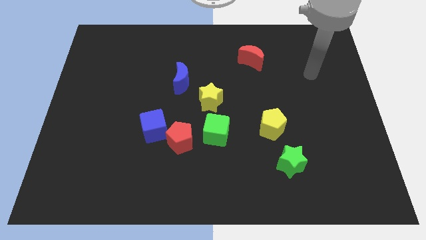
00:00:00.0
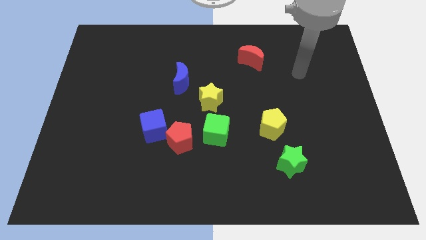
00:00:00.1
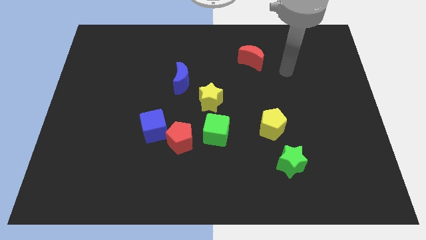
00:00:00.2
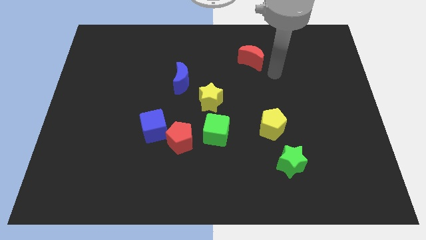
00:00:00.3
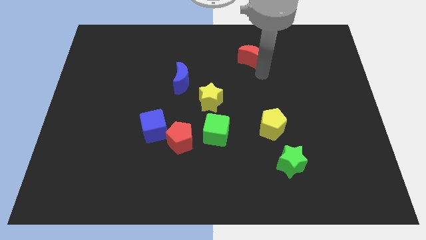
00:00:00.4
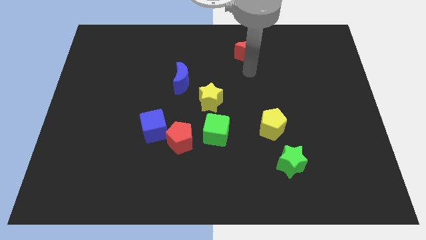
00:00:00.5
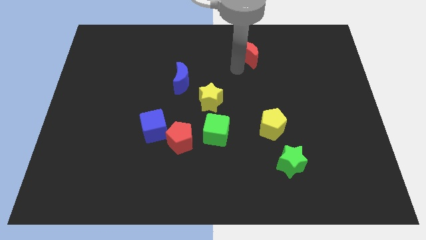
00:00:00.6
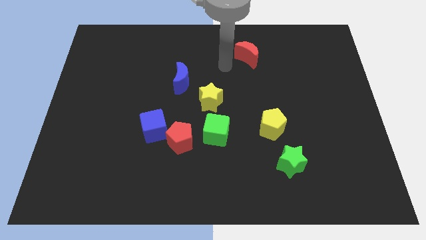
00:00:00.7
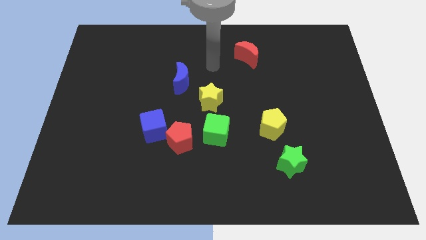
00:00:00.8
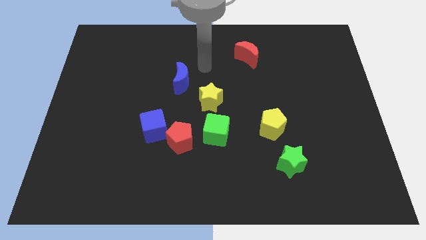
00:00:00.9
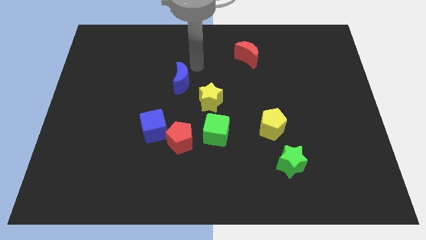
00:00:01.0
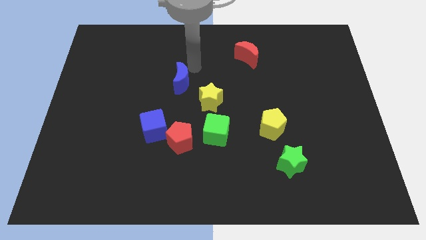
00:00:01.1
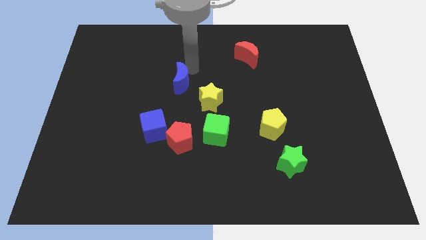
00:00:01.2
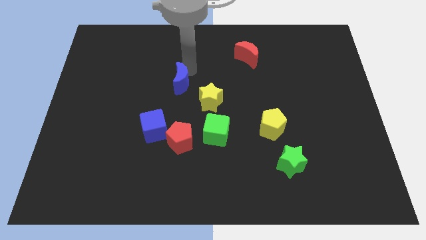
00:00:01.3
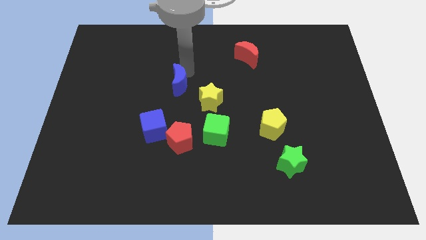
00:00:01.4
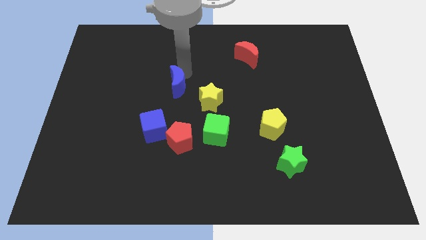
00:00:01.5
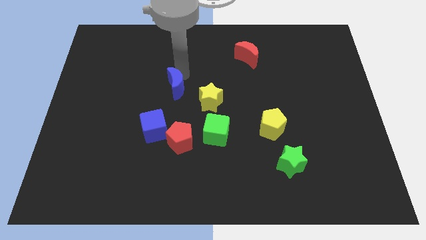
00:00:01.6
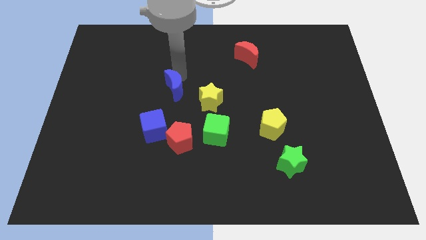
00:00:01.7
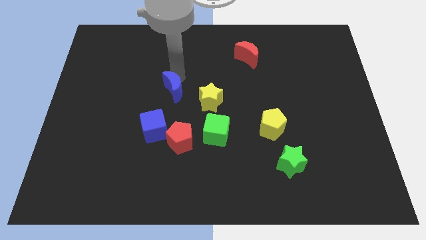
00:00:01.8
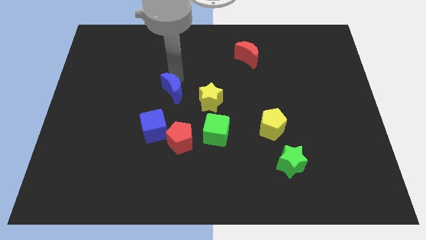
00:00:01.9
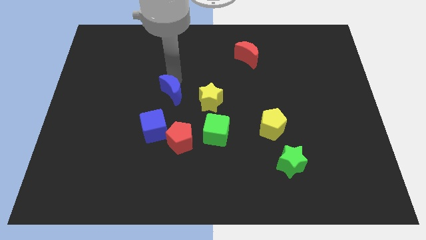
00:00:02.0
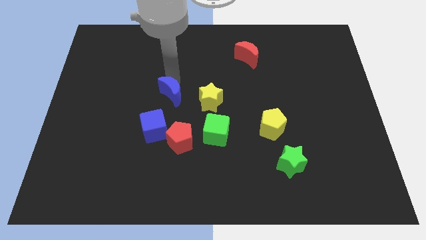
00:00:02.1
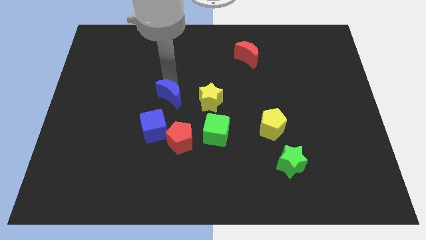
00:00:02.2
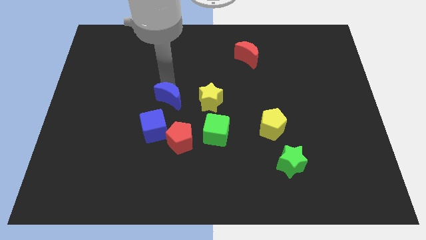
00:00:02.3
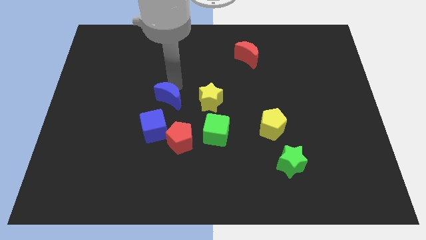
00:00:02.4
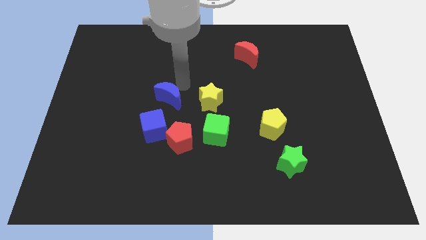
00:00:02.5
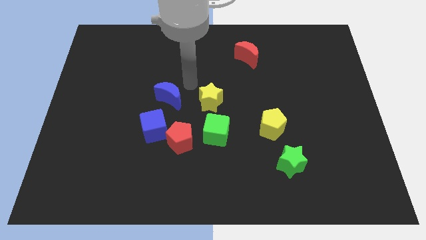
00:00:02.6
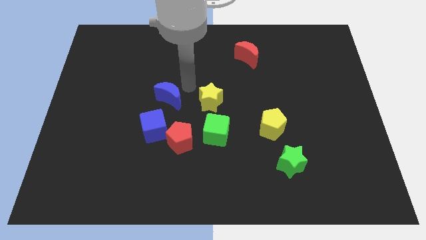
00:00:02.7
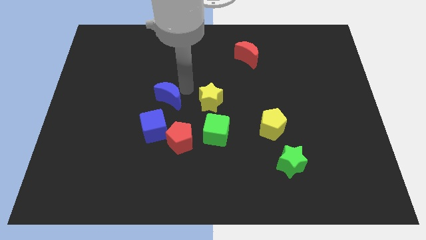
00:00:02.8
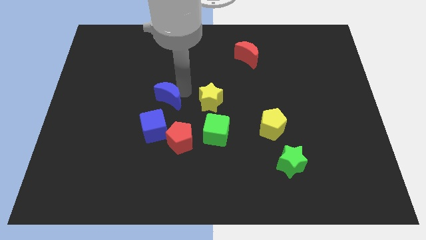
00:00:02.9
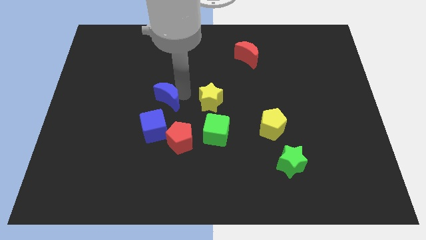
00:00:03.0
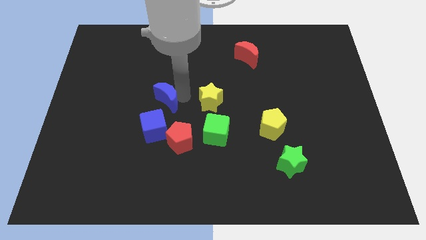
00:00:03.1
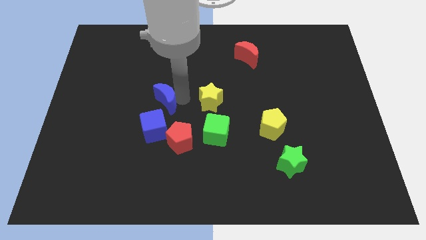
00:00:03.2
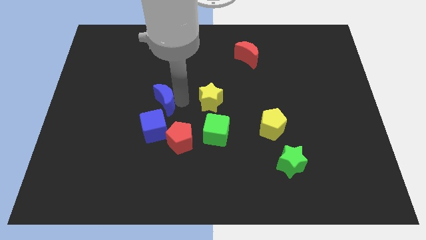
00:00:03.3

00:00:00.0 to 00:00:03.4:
slightly push the blue moon downwards and left diagonally

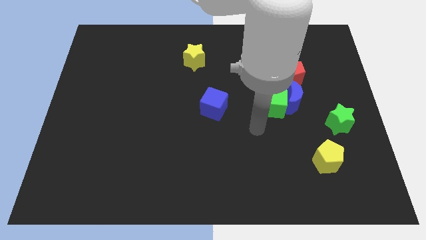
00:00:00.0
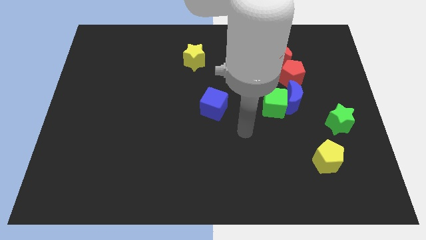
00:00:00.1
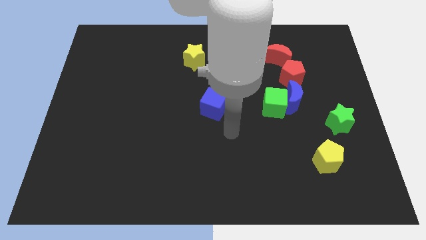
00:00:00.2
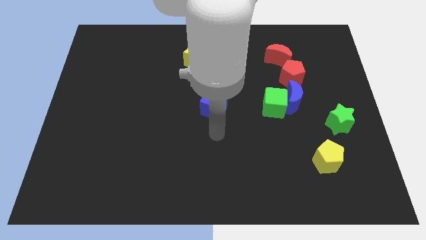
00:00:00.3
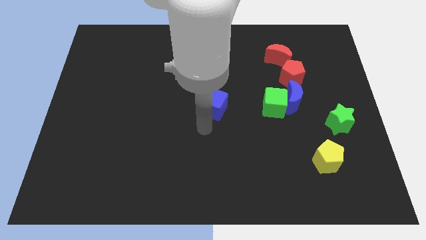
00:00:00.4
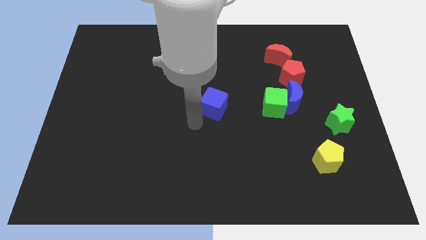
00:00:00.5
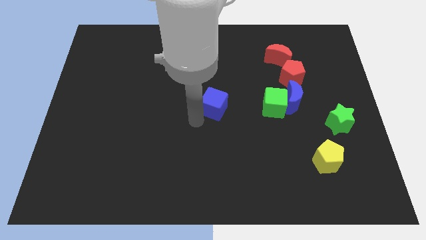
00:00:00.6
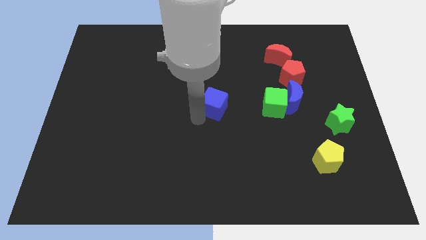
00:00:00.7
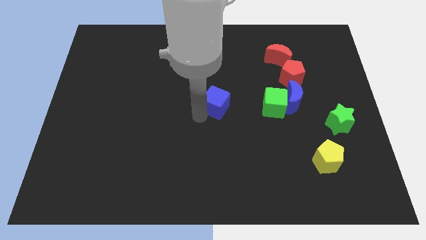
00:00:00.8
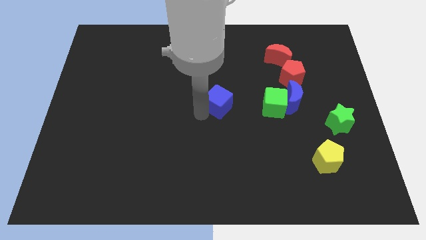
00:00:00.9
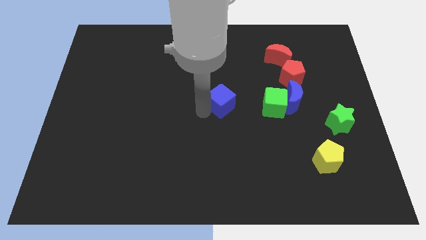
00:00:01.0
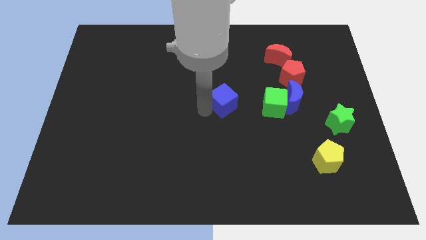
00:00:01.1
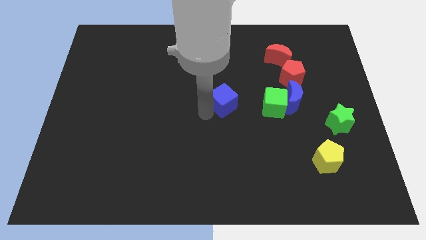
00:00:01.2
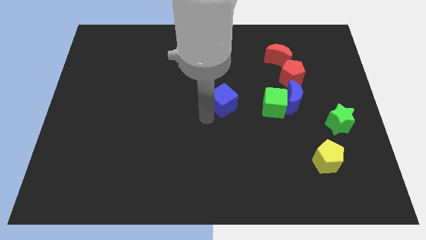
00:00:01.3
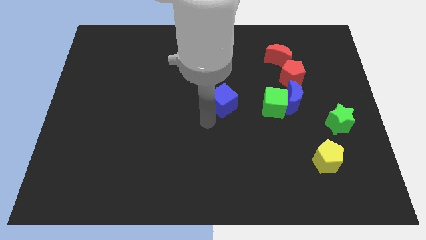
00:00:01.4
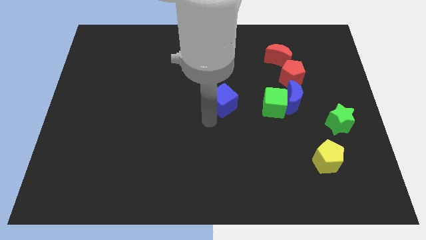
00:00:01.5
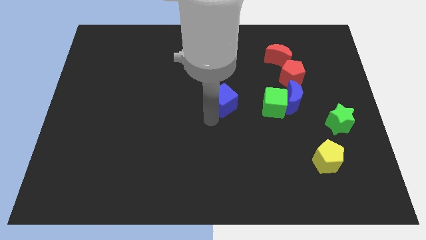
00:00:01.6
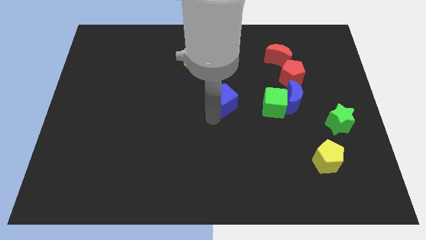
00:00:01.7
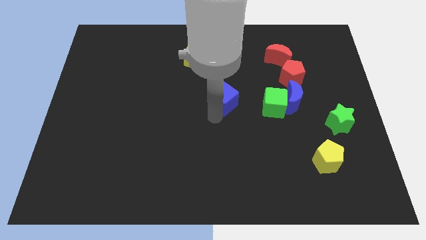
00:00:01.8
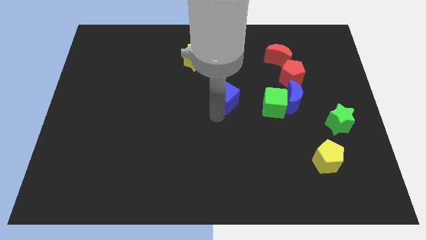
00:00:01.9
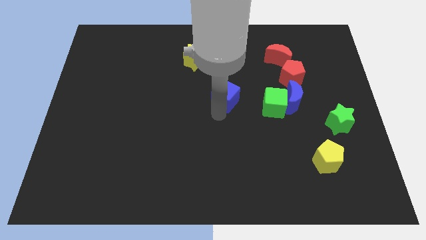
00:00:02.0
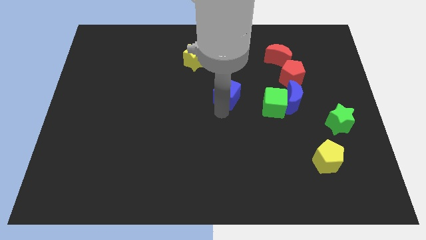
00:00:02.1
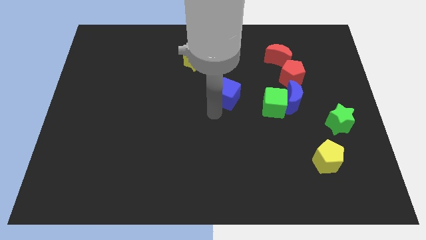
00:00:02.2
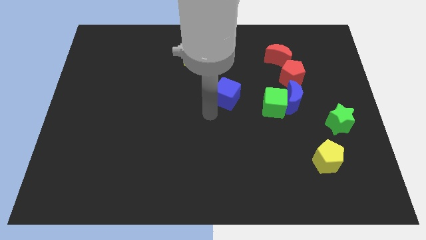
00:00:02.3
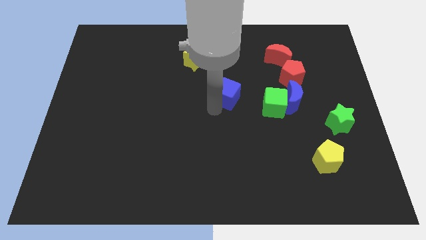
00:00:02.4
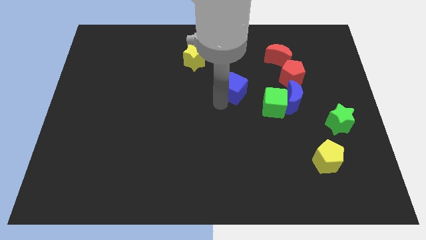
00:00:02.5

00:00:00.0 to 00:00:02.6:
push the blue cube up and then right a bit

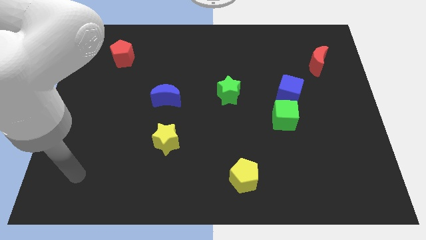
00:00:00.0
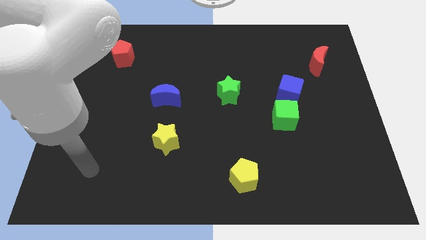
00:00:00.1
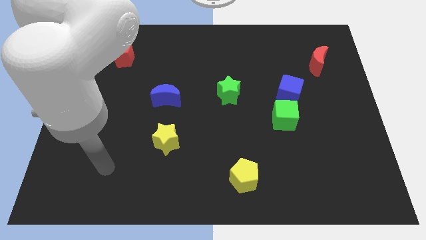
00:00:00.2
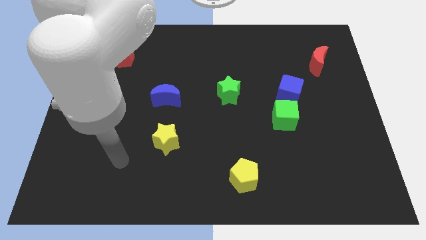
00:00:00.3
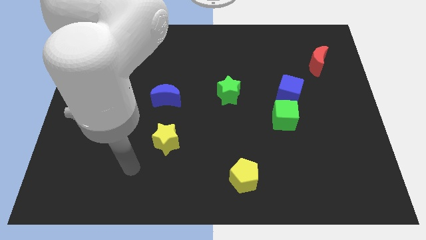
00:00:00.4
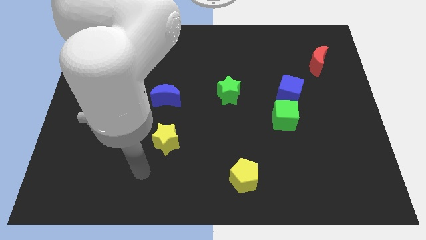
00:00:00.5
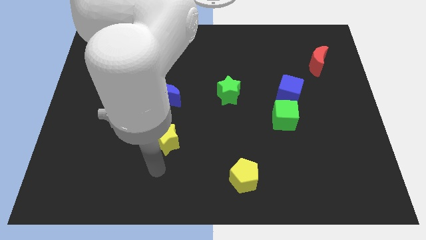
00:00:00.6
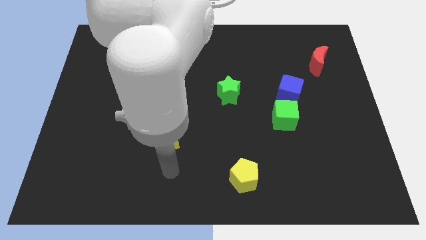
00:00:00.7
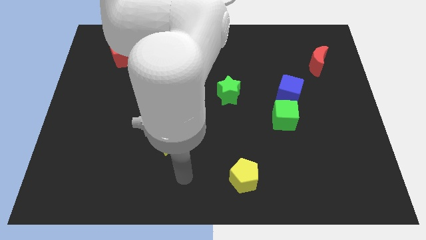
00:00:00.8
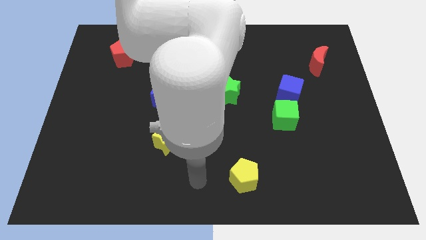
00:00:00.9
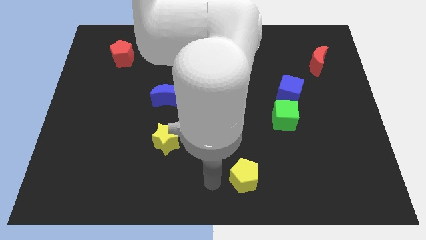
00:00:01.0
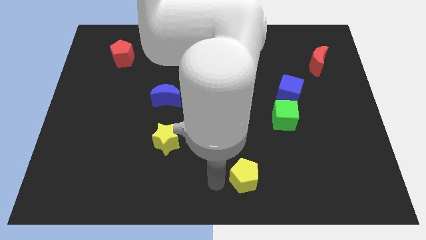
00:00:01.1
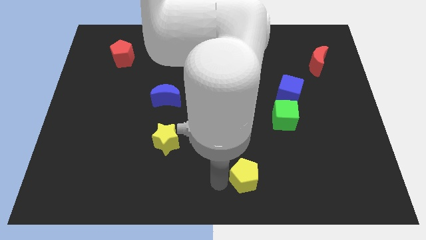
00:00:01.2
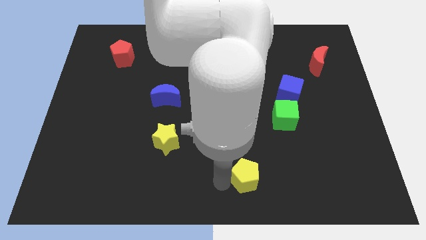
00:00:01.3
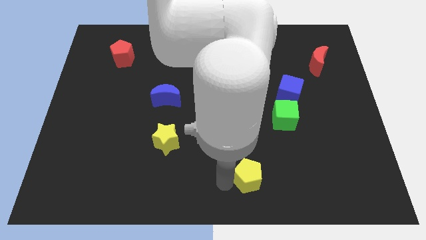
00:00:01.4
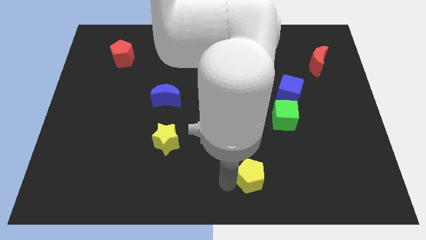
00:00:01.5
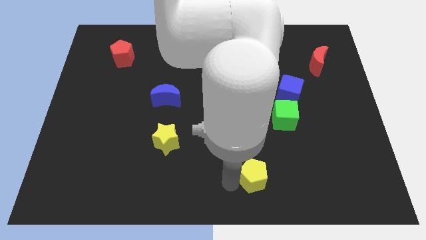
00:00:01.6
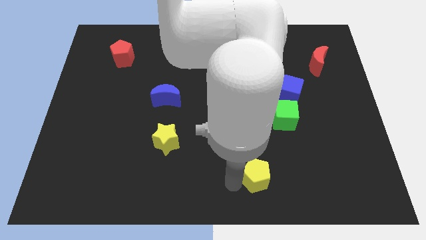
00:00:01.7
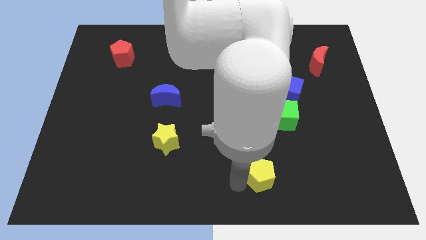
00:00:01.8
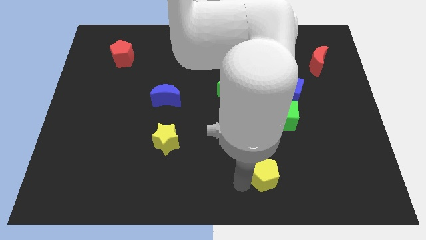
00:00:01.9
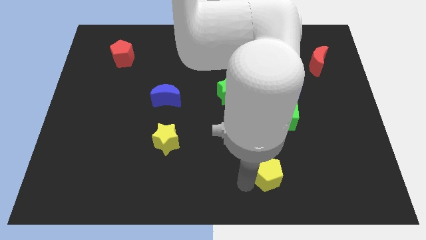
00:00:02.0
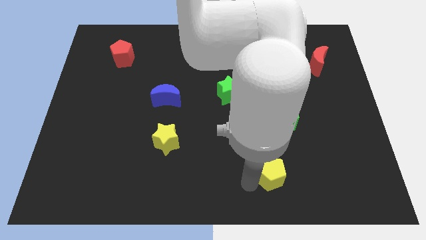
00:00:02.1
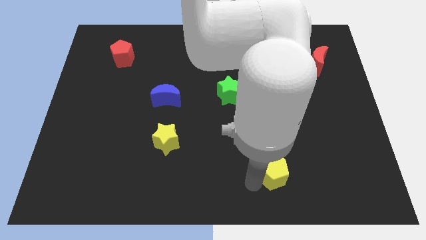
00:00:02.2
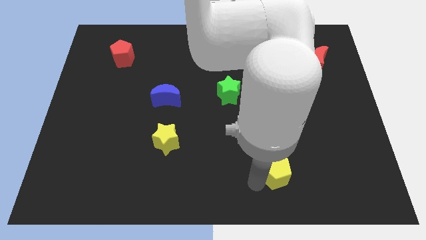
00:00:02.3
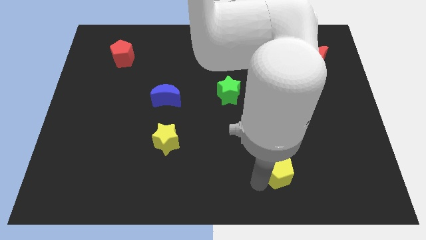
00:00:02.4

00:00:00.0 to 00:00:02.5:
slightly slide the yellow pentagon right
